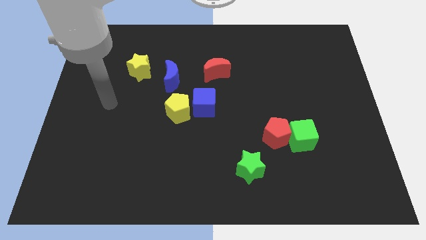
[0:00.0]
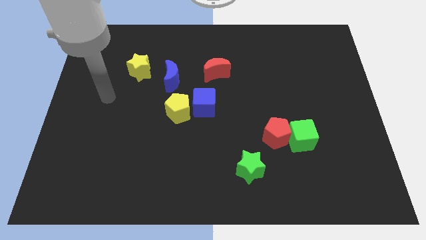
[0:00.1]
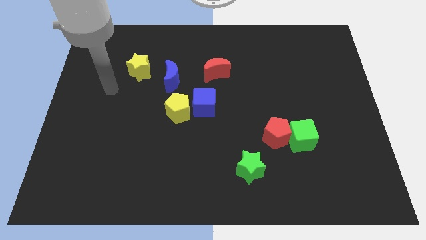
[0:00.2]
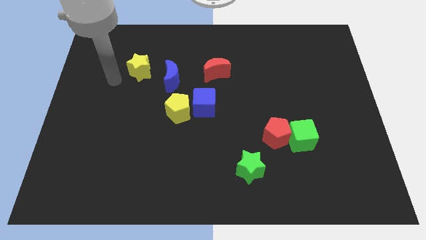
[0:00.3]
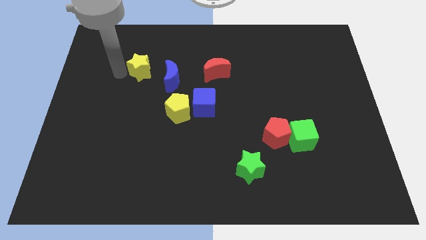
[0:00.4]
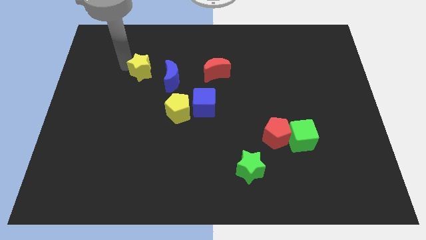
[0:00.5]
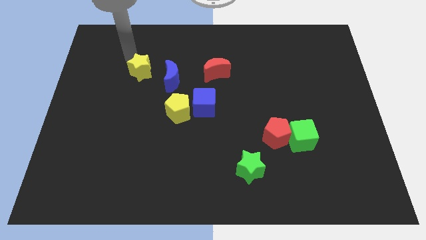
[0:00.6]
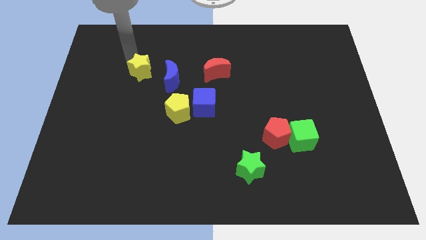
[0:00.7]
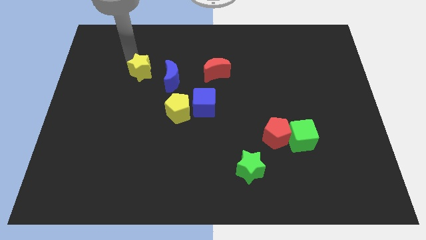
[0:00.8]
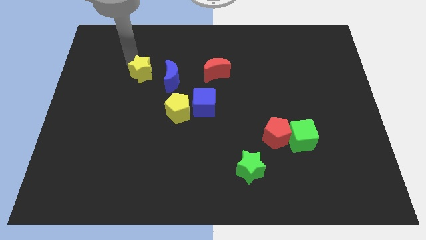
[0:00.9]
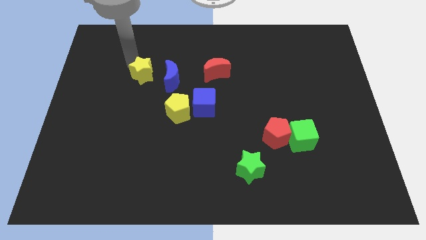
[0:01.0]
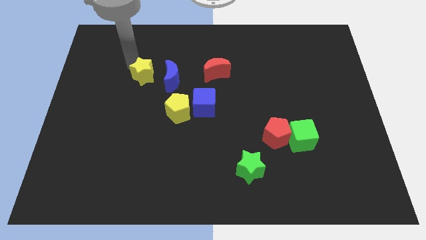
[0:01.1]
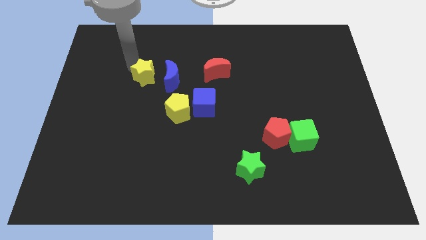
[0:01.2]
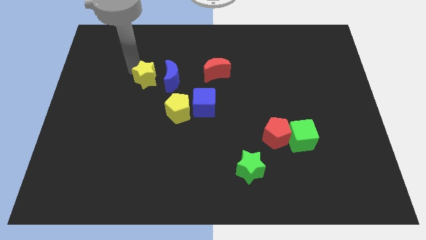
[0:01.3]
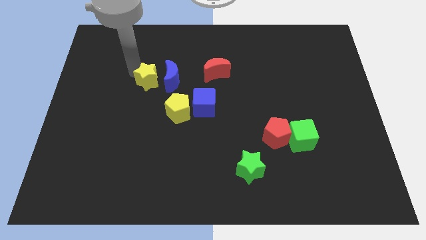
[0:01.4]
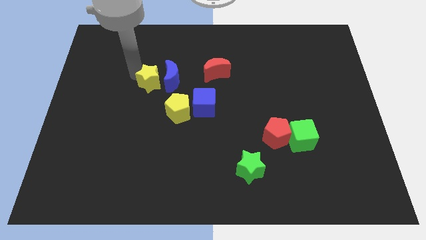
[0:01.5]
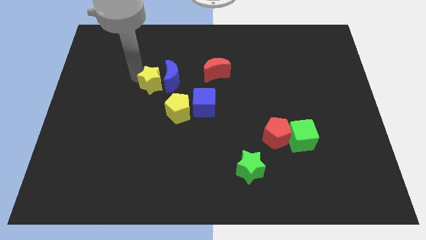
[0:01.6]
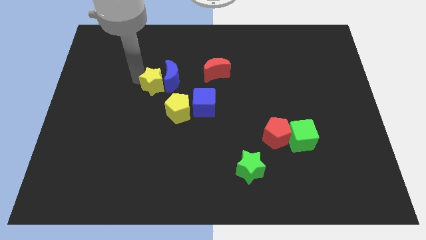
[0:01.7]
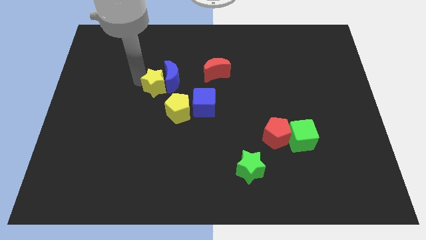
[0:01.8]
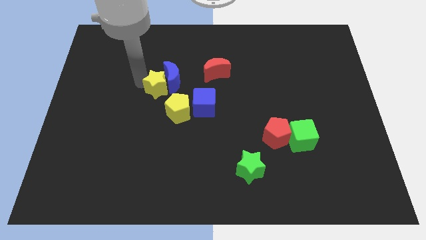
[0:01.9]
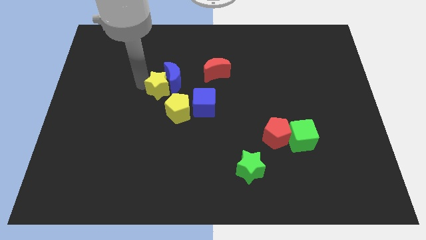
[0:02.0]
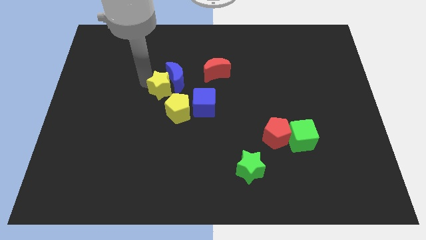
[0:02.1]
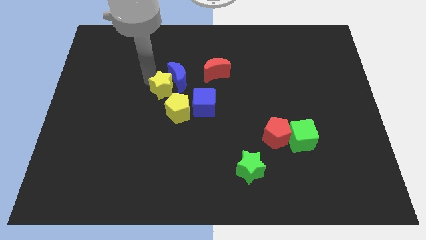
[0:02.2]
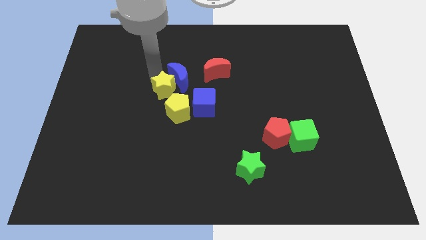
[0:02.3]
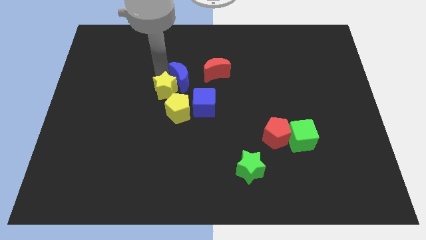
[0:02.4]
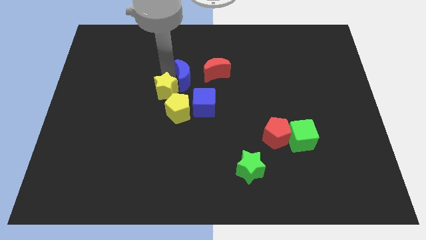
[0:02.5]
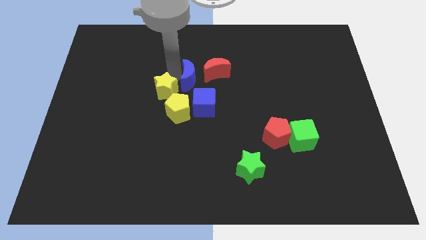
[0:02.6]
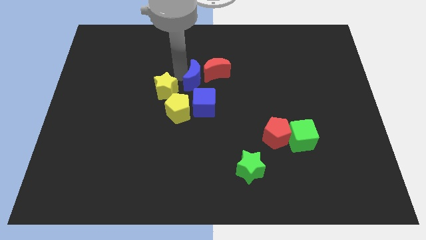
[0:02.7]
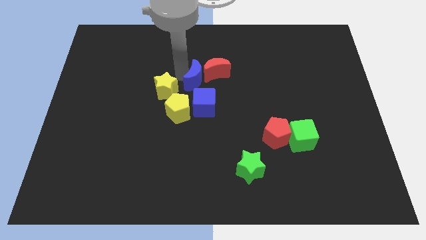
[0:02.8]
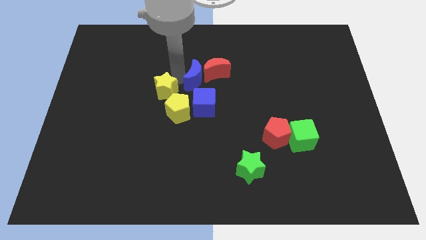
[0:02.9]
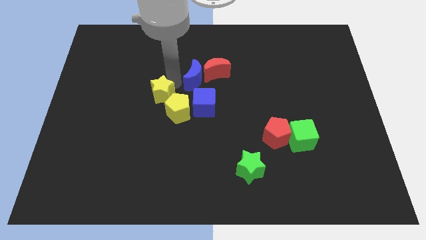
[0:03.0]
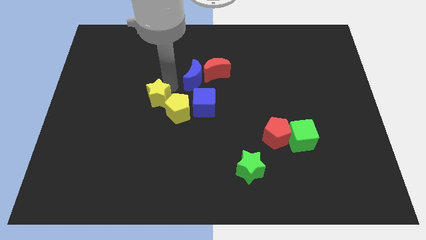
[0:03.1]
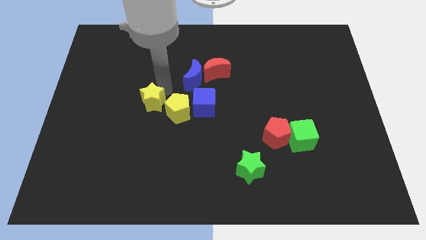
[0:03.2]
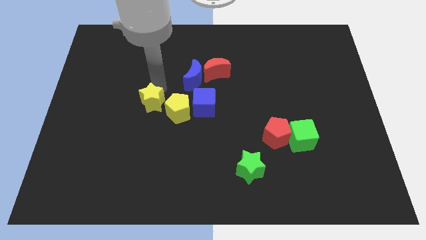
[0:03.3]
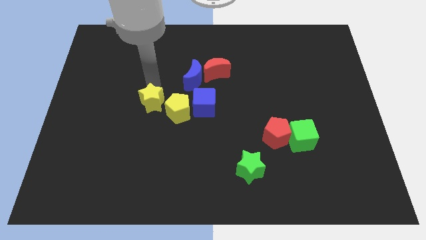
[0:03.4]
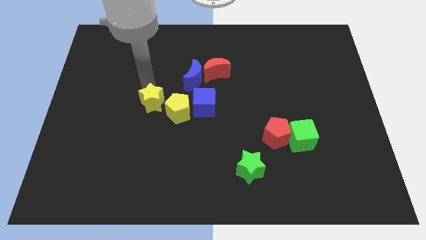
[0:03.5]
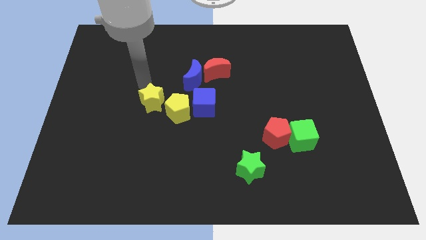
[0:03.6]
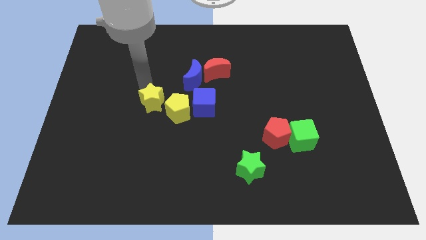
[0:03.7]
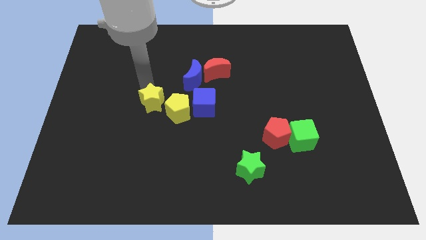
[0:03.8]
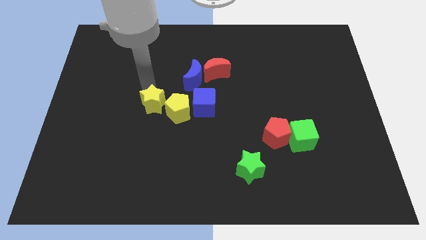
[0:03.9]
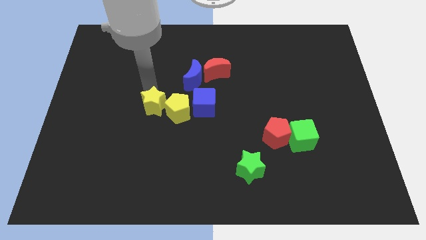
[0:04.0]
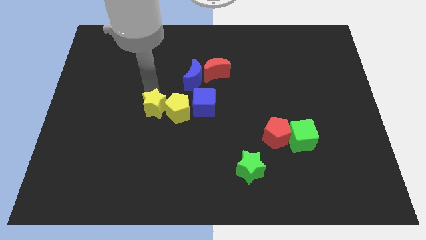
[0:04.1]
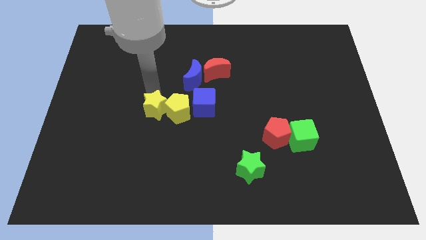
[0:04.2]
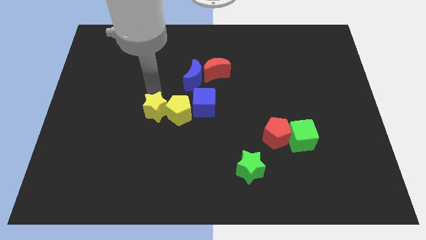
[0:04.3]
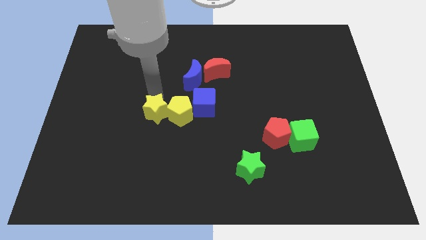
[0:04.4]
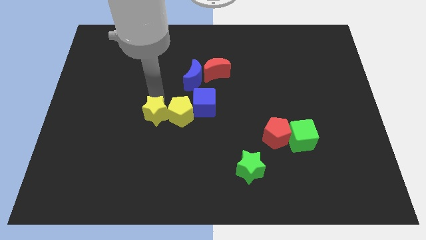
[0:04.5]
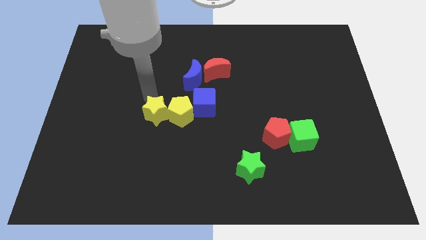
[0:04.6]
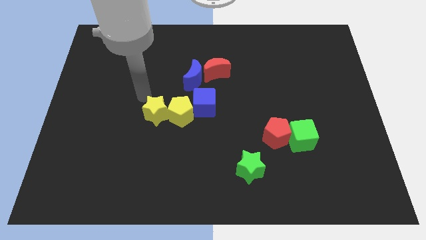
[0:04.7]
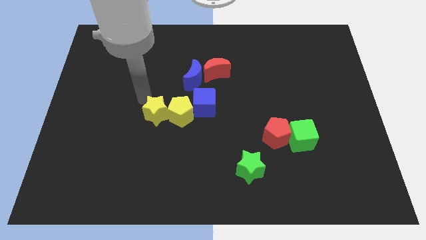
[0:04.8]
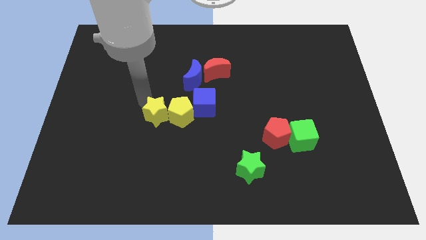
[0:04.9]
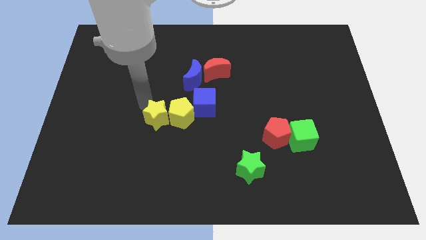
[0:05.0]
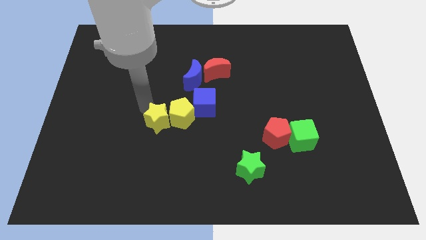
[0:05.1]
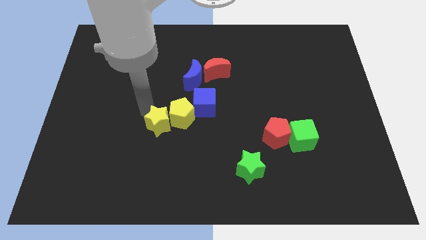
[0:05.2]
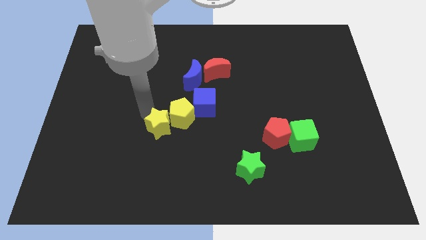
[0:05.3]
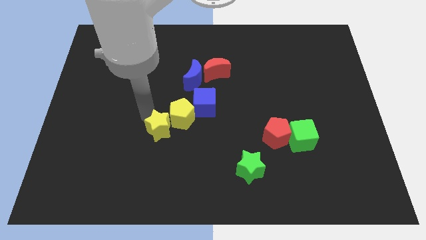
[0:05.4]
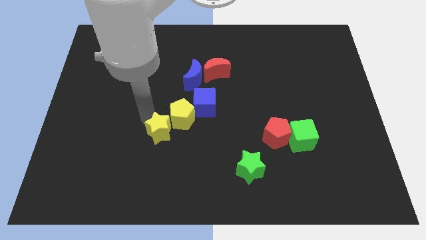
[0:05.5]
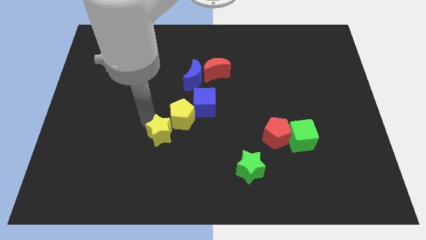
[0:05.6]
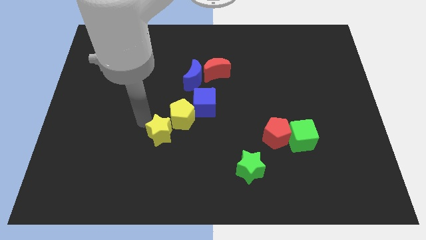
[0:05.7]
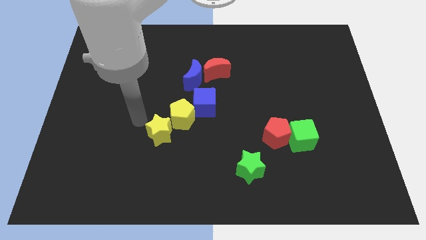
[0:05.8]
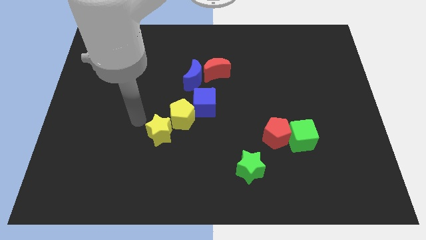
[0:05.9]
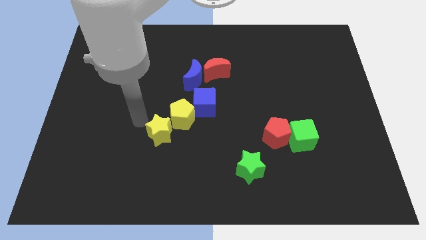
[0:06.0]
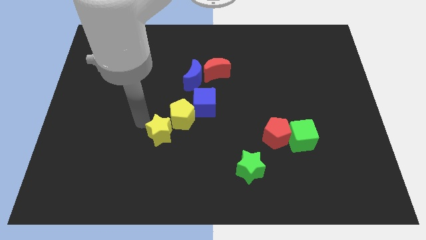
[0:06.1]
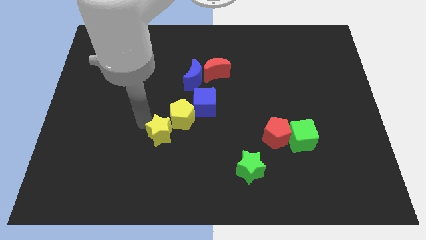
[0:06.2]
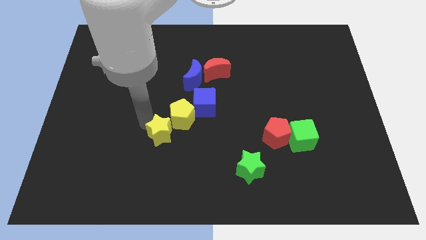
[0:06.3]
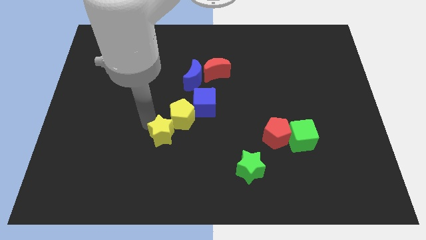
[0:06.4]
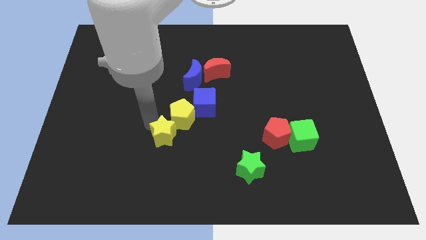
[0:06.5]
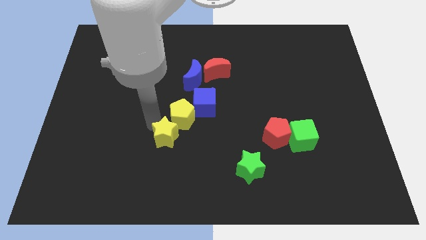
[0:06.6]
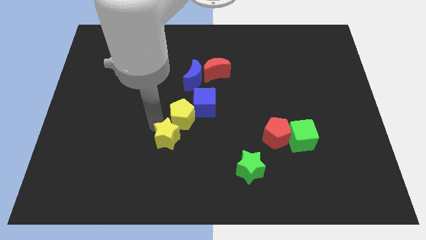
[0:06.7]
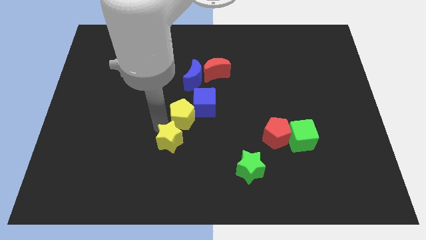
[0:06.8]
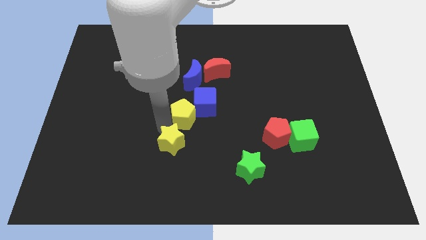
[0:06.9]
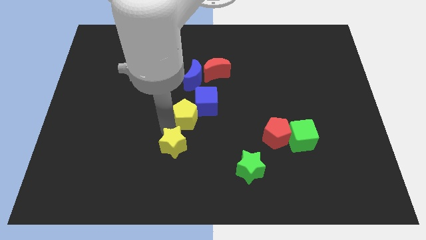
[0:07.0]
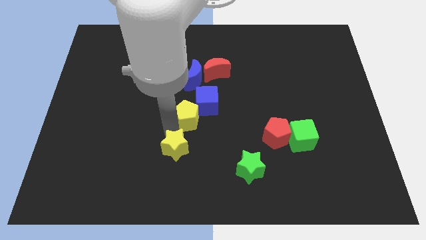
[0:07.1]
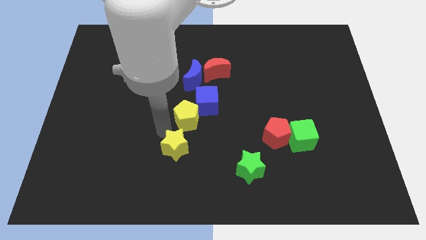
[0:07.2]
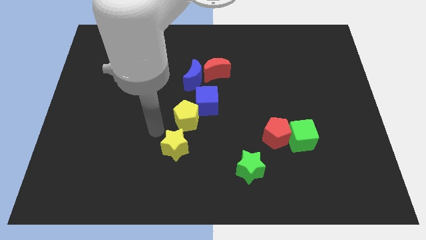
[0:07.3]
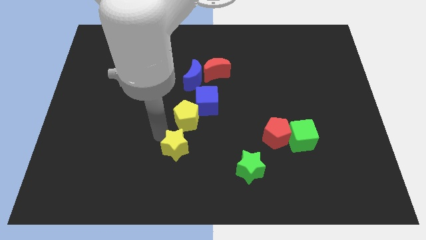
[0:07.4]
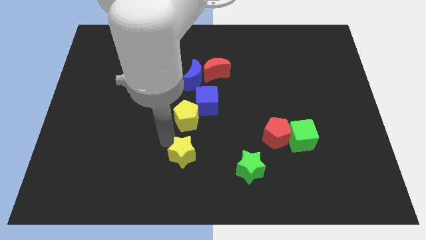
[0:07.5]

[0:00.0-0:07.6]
move the yellow star just left of the green star
